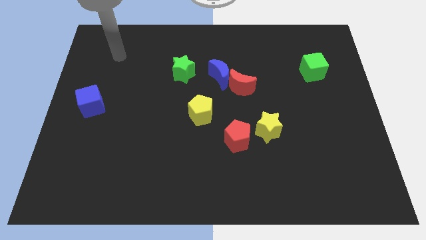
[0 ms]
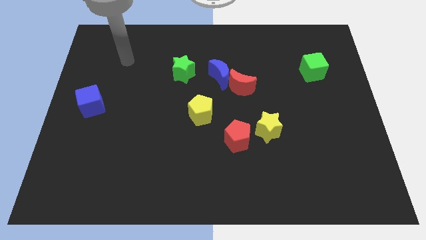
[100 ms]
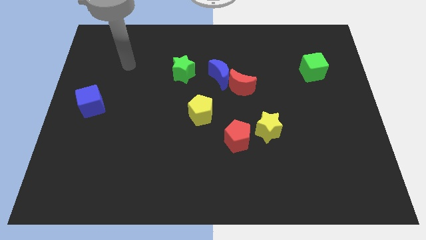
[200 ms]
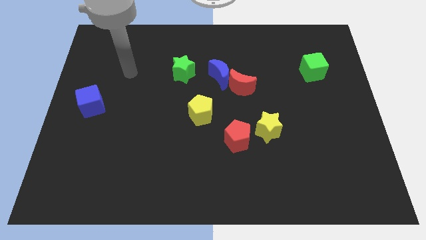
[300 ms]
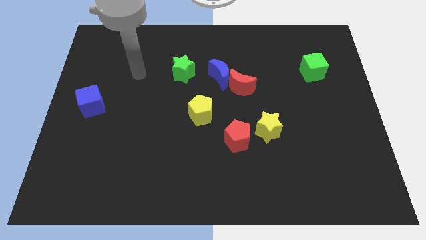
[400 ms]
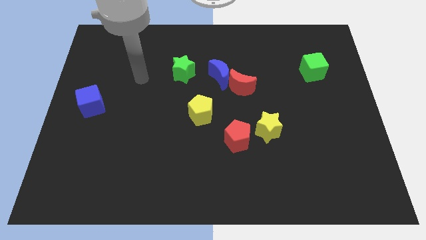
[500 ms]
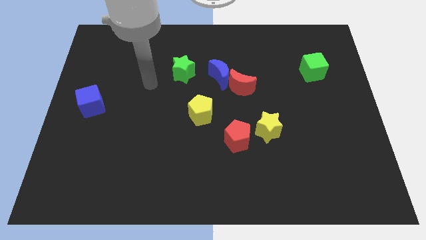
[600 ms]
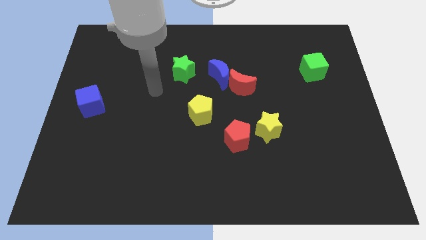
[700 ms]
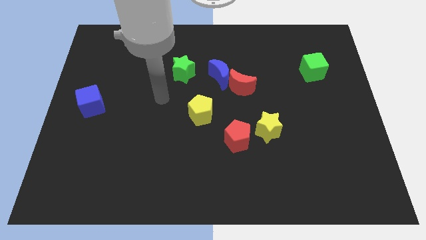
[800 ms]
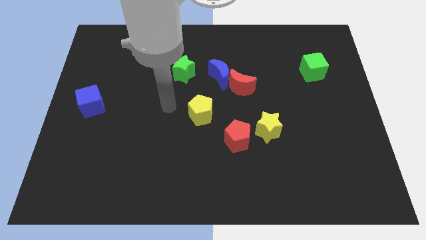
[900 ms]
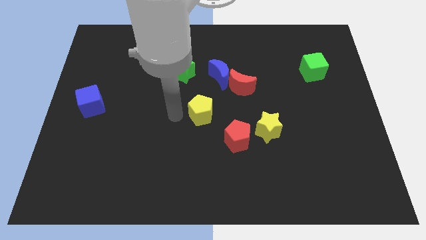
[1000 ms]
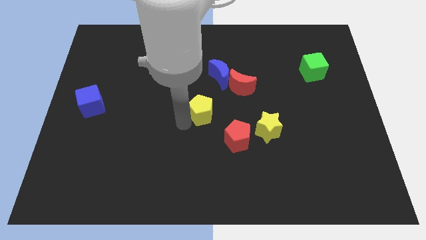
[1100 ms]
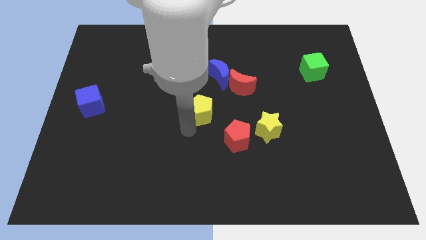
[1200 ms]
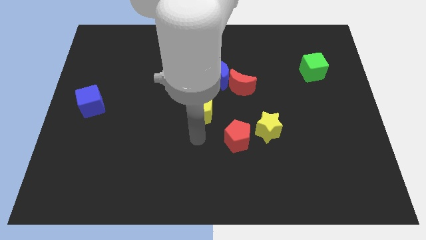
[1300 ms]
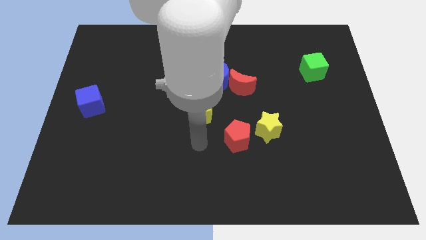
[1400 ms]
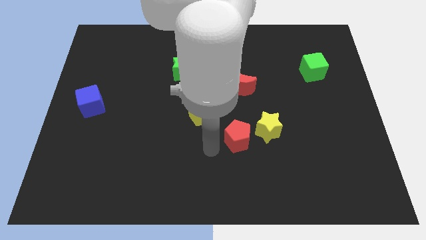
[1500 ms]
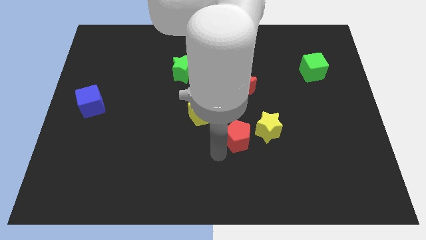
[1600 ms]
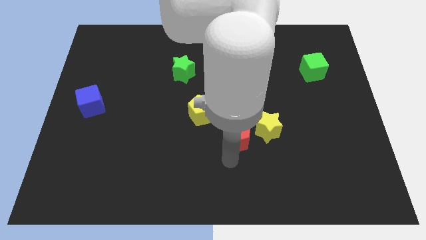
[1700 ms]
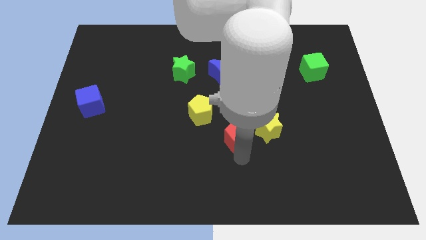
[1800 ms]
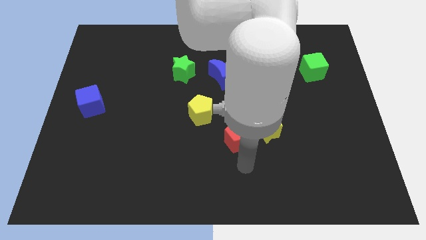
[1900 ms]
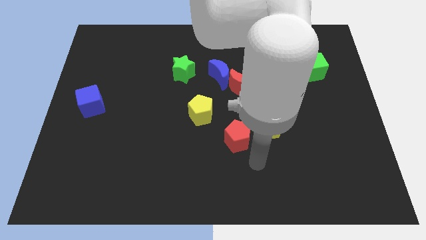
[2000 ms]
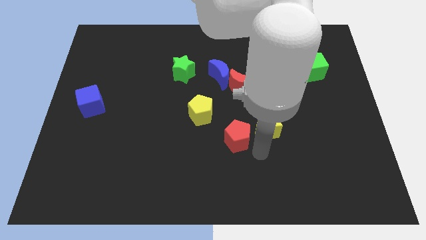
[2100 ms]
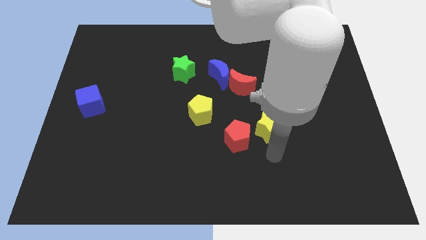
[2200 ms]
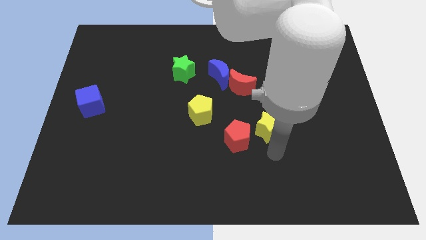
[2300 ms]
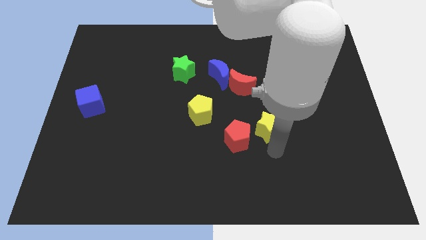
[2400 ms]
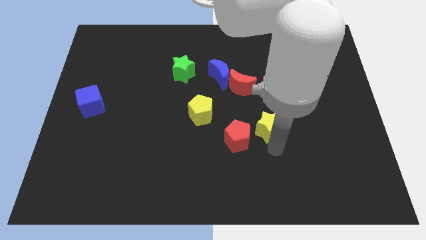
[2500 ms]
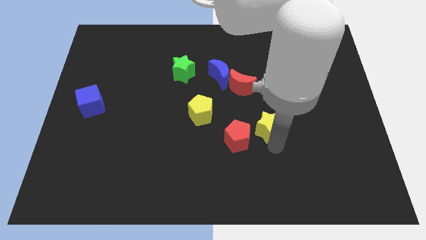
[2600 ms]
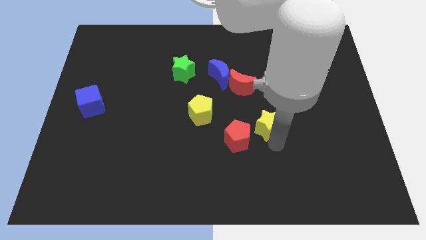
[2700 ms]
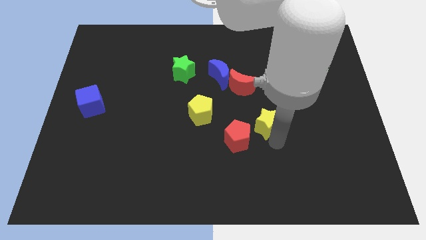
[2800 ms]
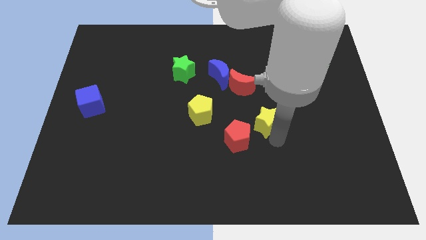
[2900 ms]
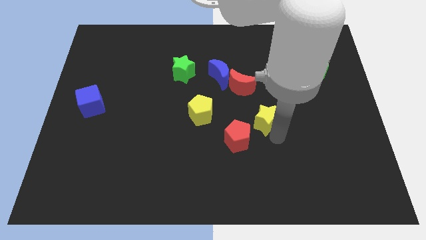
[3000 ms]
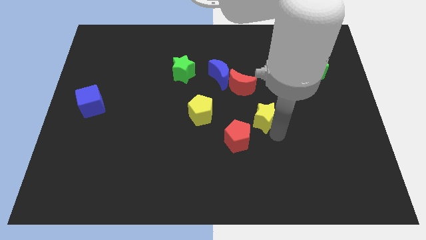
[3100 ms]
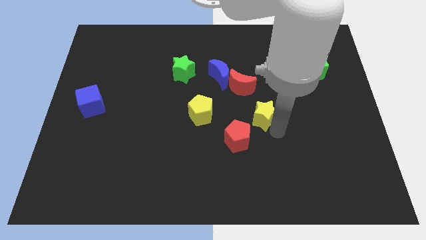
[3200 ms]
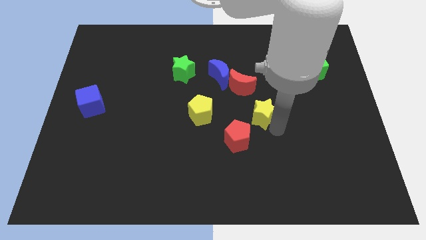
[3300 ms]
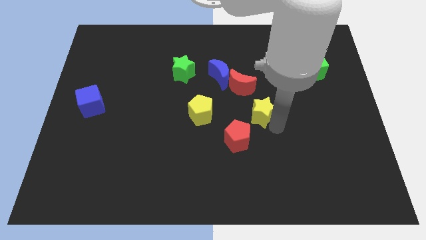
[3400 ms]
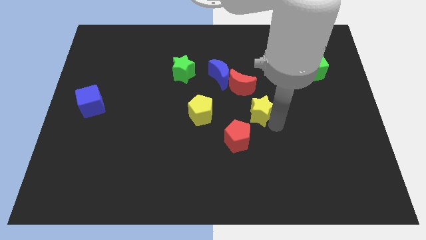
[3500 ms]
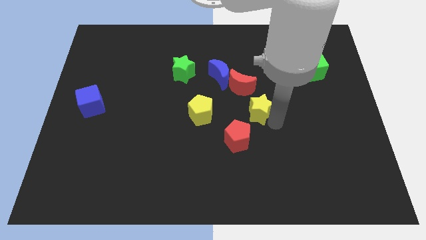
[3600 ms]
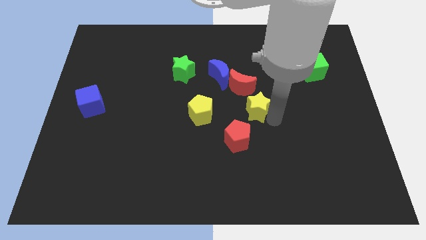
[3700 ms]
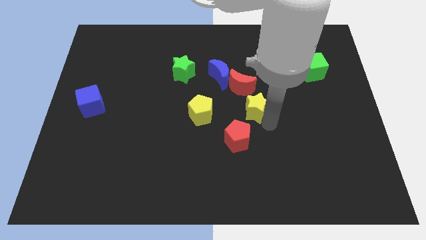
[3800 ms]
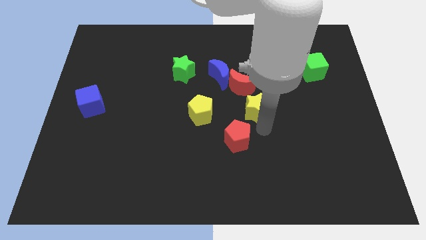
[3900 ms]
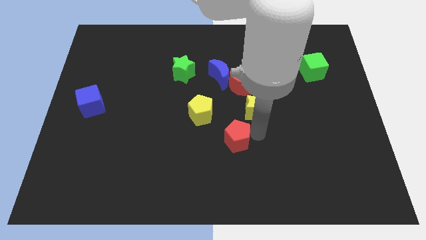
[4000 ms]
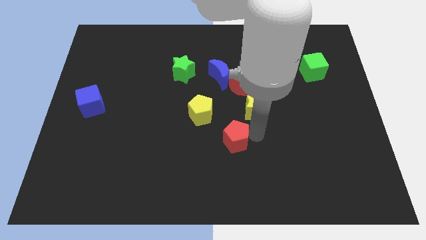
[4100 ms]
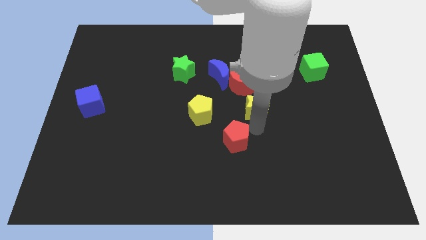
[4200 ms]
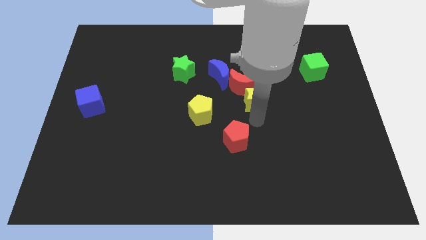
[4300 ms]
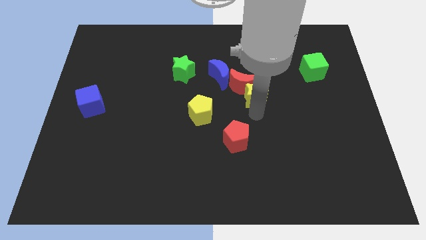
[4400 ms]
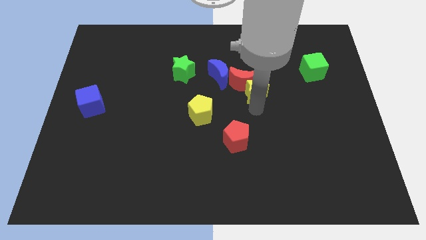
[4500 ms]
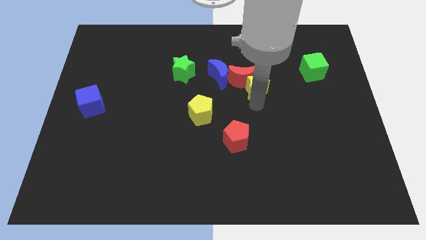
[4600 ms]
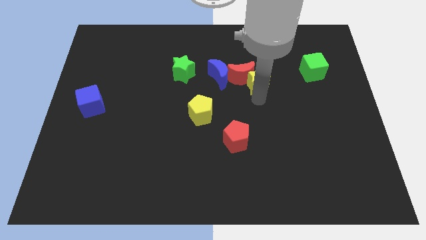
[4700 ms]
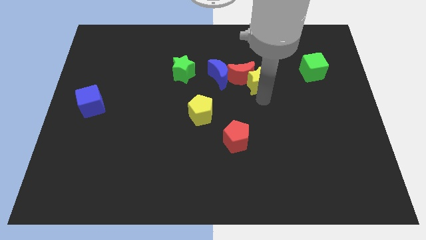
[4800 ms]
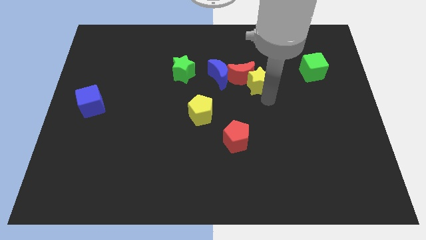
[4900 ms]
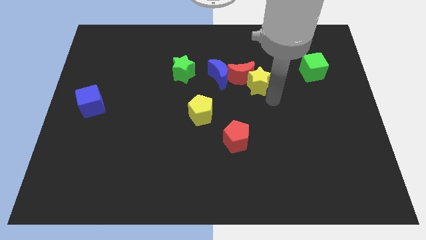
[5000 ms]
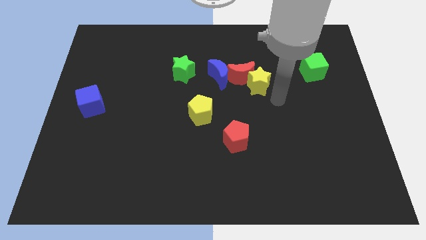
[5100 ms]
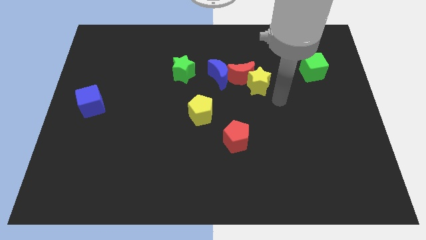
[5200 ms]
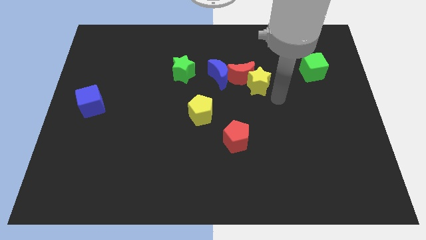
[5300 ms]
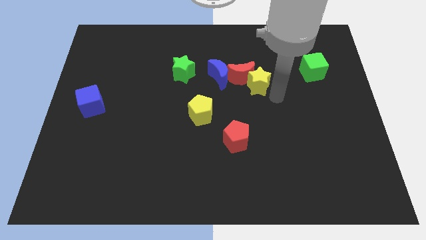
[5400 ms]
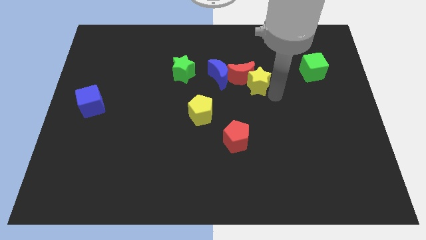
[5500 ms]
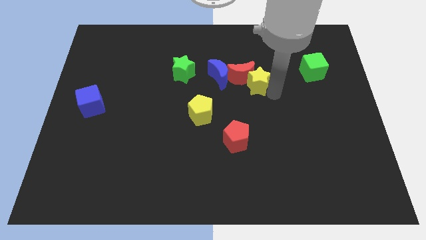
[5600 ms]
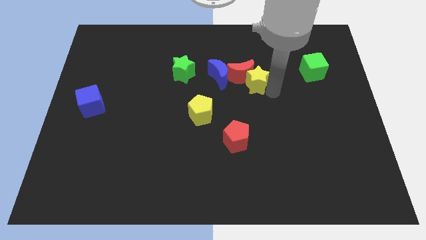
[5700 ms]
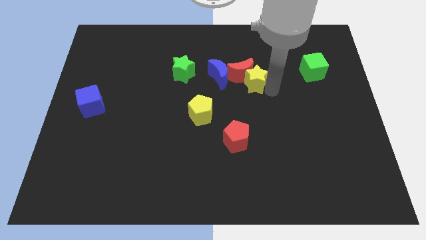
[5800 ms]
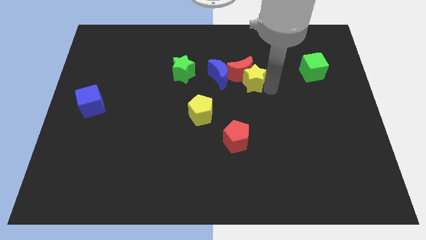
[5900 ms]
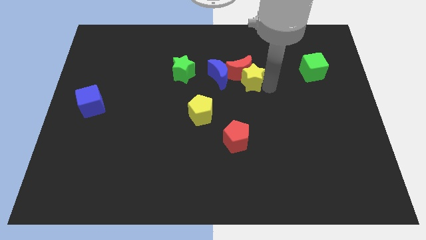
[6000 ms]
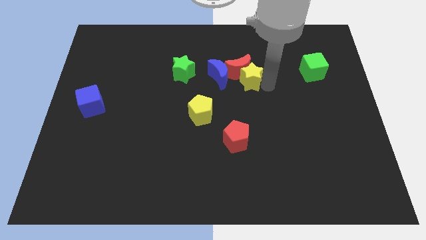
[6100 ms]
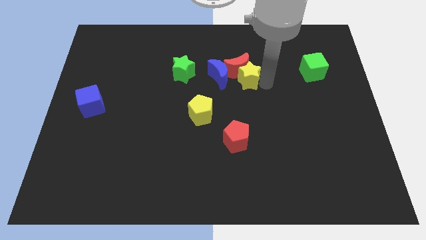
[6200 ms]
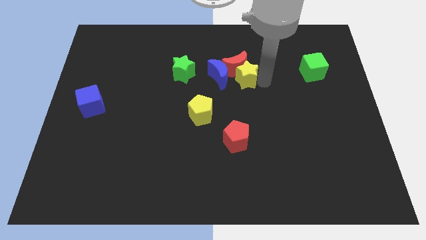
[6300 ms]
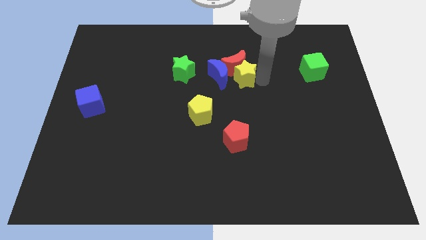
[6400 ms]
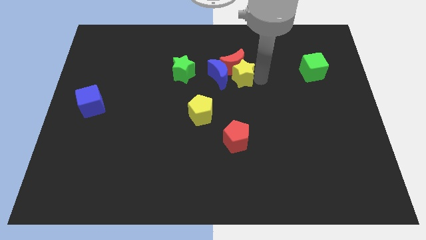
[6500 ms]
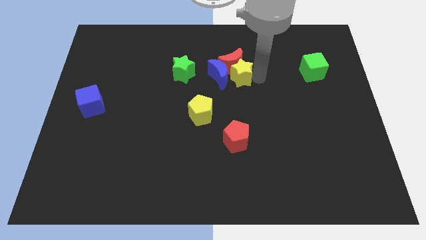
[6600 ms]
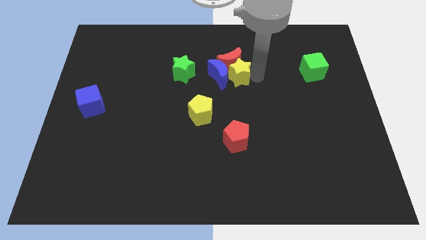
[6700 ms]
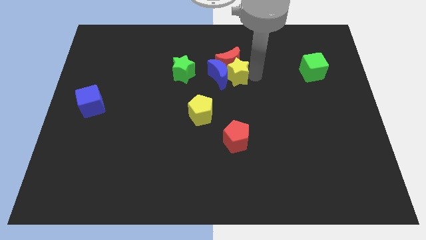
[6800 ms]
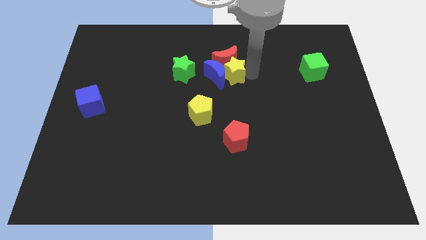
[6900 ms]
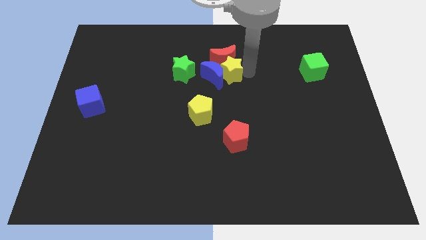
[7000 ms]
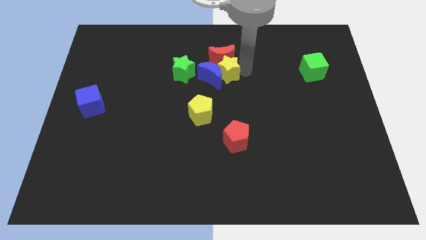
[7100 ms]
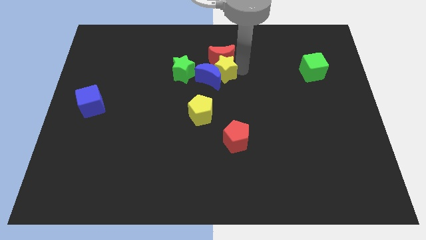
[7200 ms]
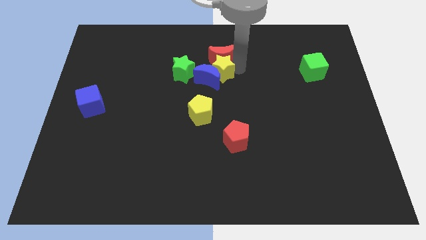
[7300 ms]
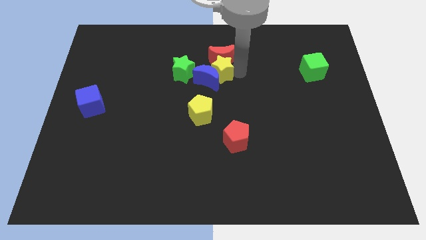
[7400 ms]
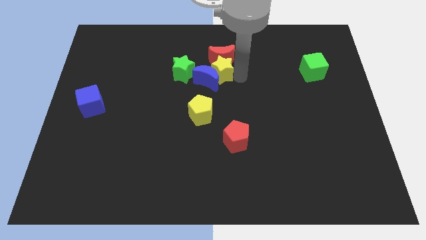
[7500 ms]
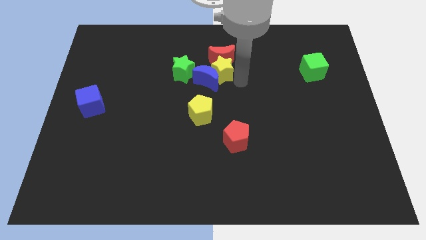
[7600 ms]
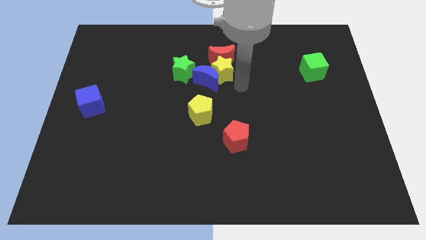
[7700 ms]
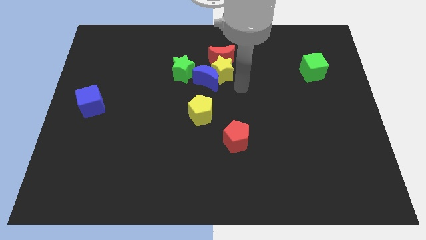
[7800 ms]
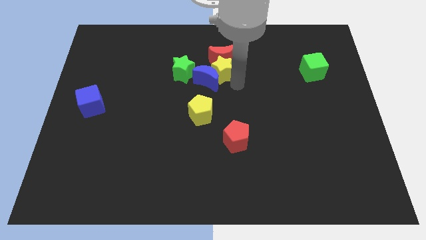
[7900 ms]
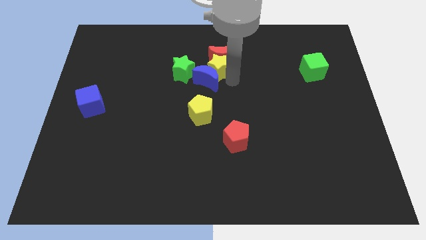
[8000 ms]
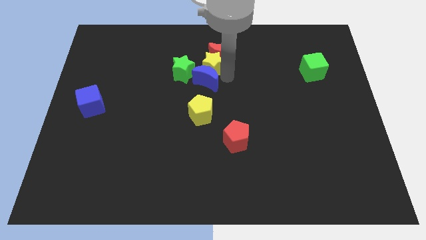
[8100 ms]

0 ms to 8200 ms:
move the yellow star diagonally up and to the right of the green star
